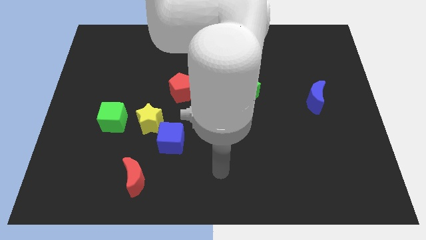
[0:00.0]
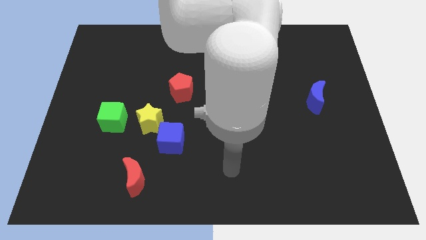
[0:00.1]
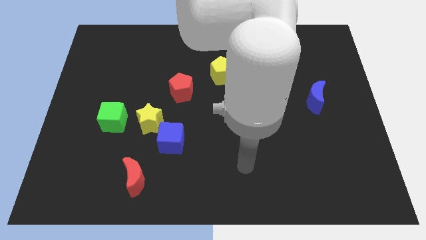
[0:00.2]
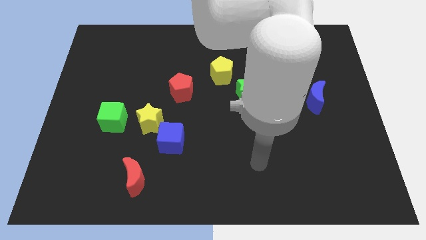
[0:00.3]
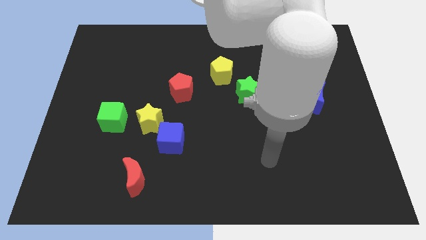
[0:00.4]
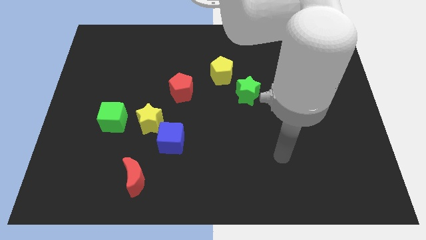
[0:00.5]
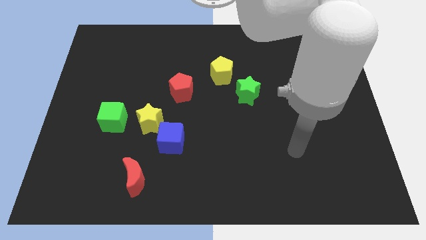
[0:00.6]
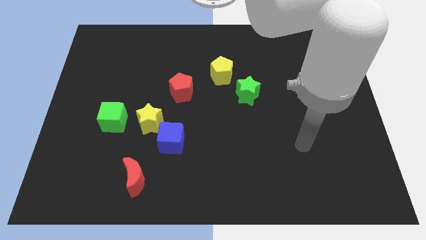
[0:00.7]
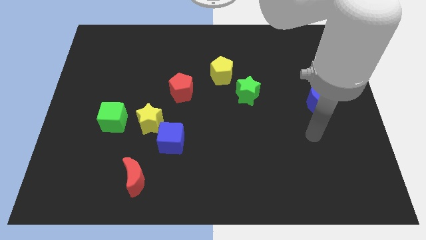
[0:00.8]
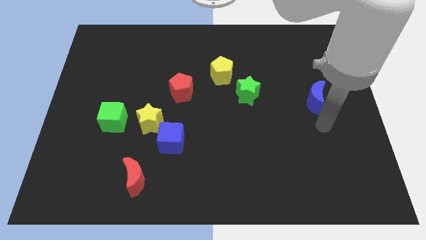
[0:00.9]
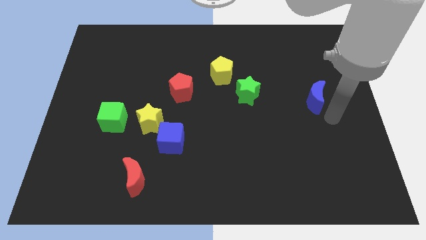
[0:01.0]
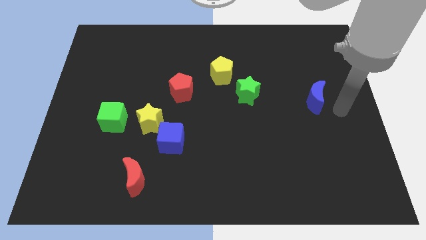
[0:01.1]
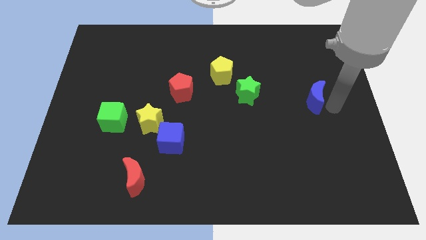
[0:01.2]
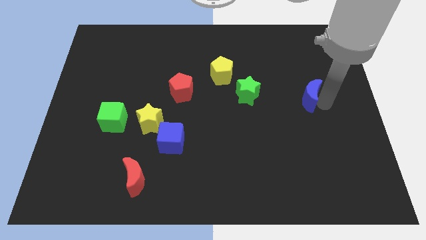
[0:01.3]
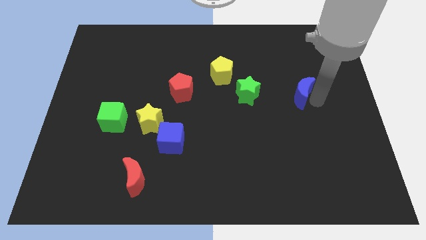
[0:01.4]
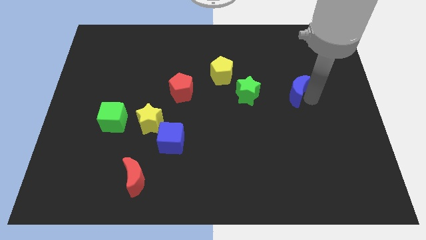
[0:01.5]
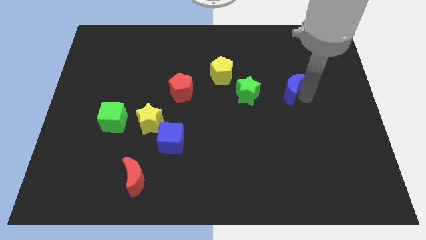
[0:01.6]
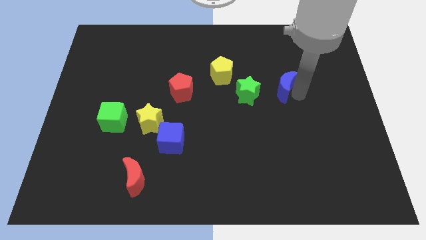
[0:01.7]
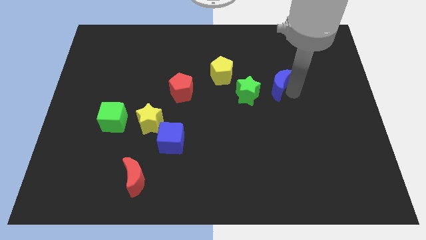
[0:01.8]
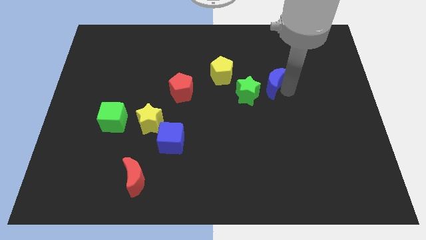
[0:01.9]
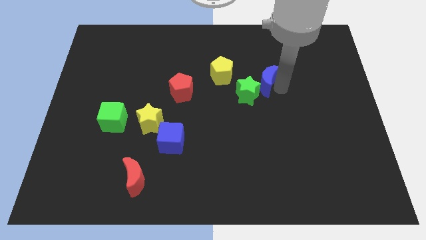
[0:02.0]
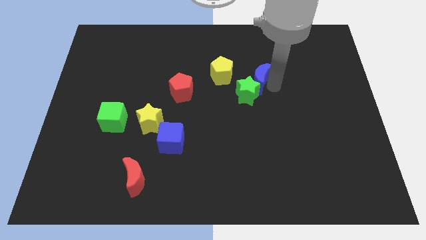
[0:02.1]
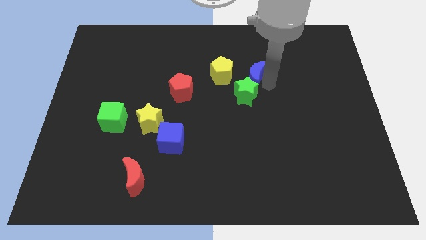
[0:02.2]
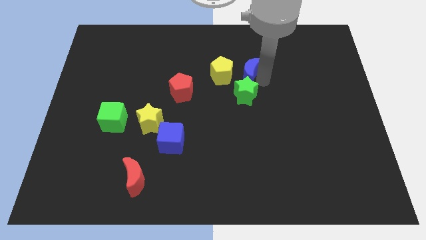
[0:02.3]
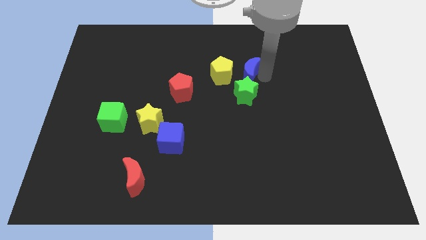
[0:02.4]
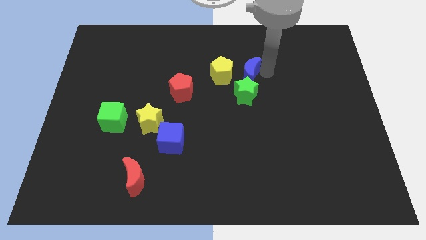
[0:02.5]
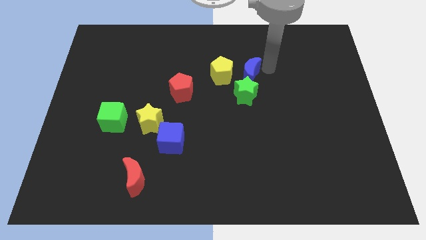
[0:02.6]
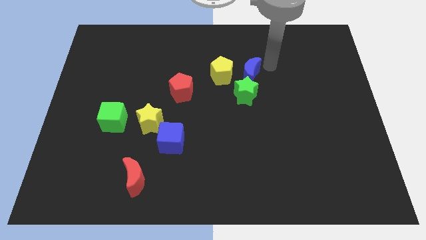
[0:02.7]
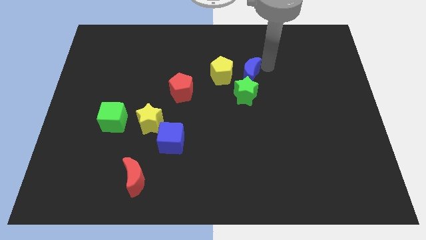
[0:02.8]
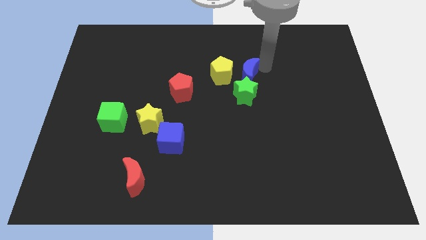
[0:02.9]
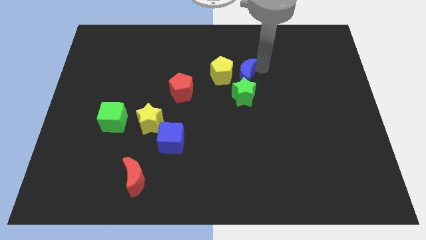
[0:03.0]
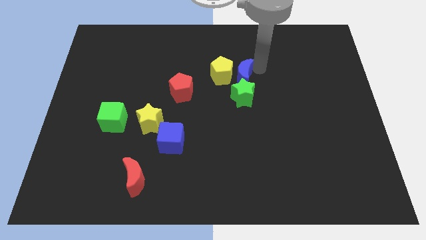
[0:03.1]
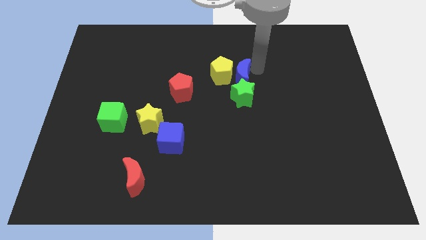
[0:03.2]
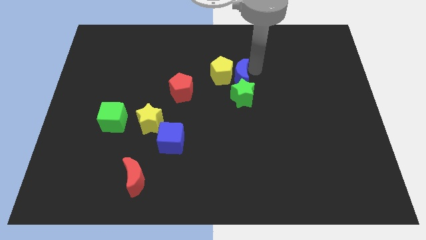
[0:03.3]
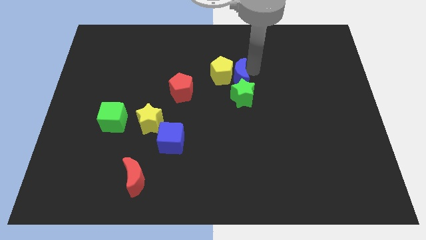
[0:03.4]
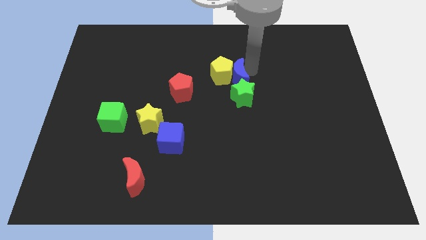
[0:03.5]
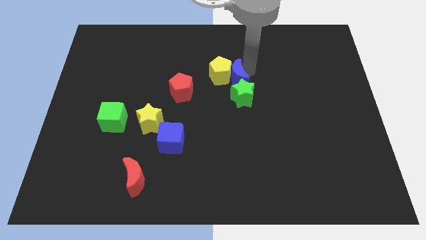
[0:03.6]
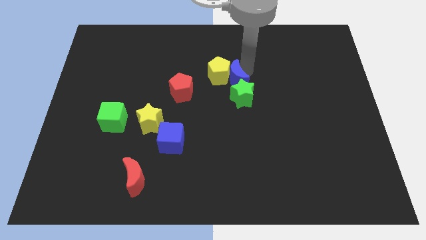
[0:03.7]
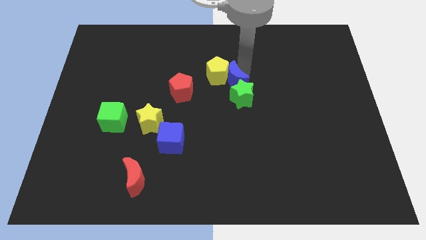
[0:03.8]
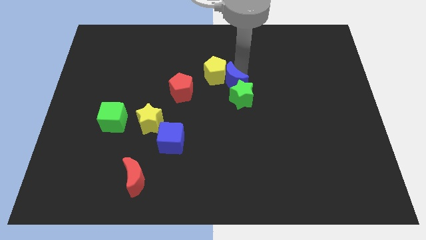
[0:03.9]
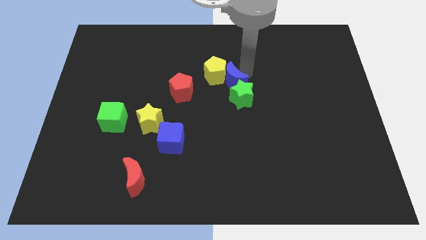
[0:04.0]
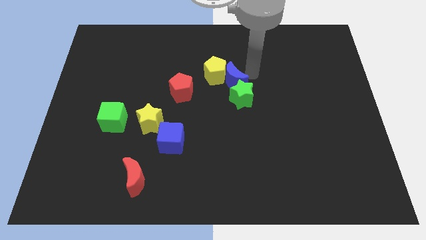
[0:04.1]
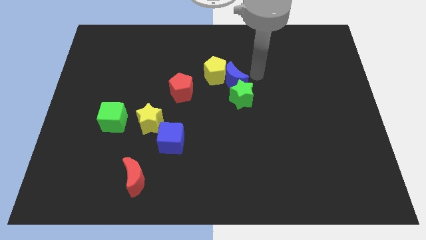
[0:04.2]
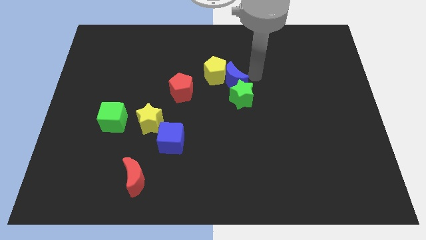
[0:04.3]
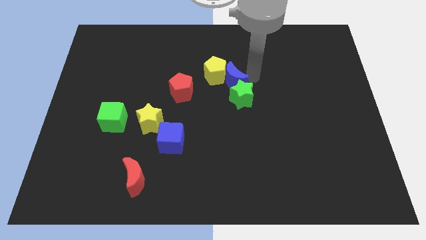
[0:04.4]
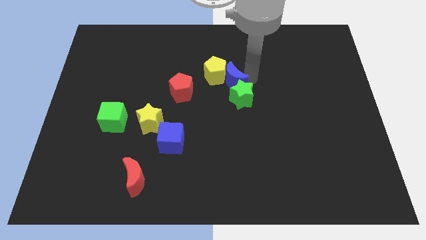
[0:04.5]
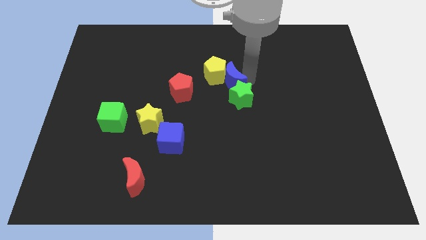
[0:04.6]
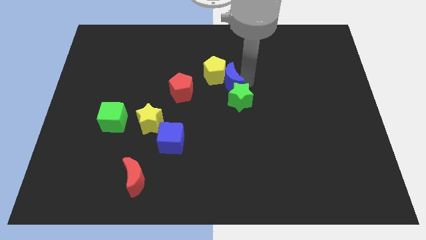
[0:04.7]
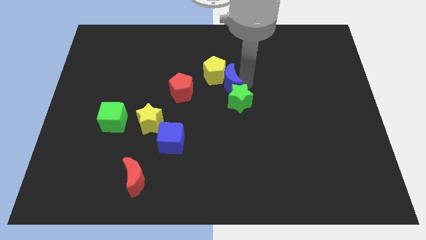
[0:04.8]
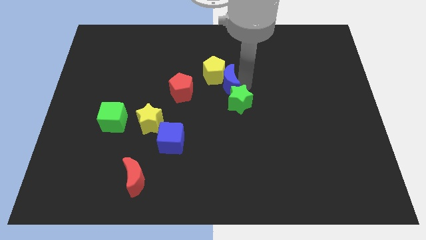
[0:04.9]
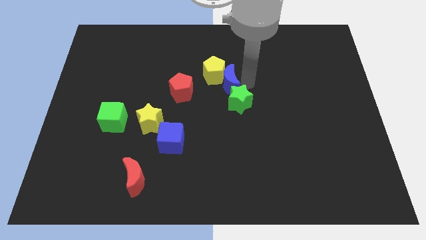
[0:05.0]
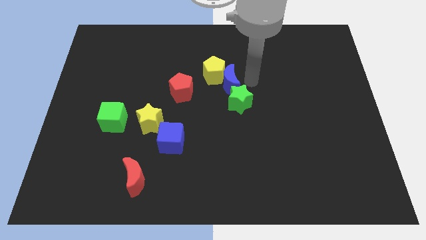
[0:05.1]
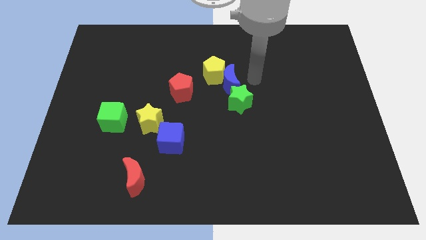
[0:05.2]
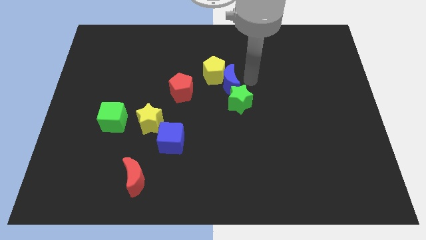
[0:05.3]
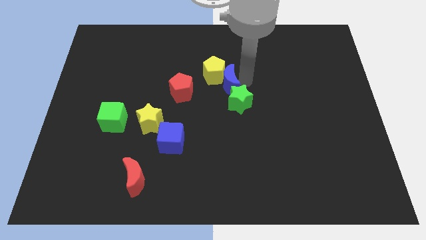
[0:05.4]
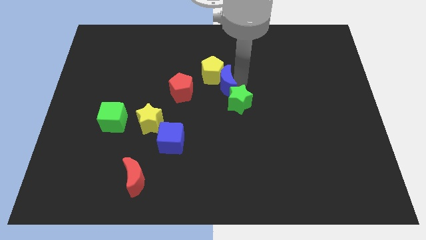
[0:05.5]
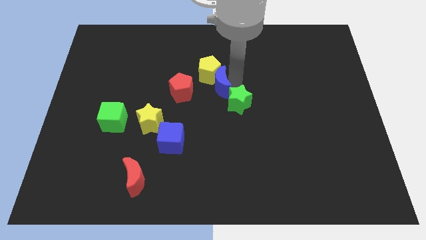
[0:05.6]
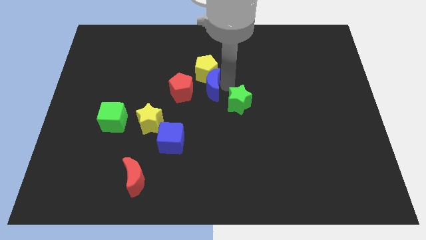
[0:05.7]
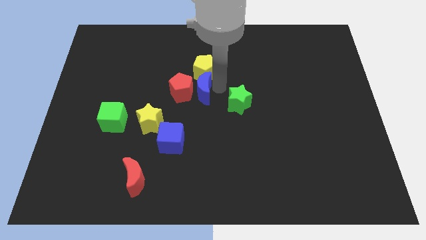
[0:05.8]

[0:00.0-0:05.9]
move the blue moon to the red pentagon

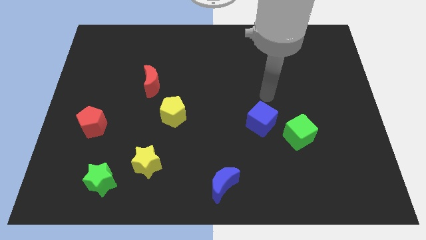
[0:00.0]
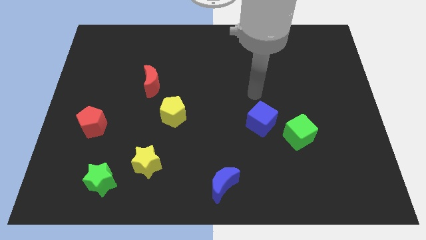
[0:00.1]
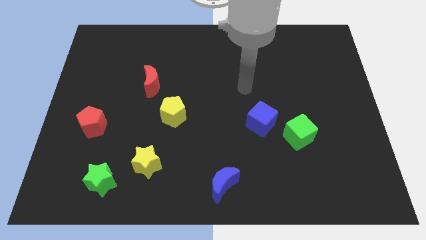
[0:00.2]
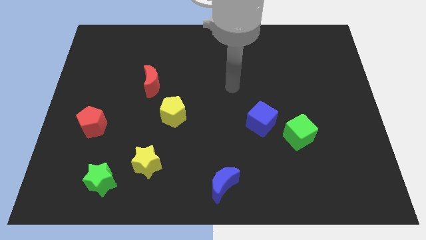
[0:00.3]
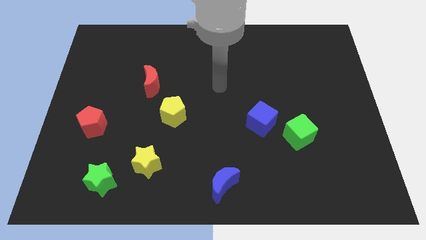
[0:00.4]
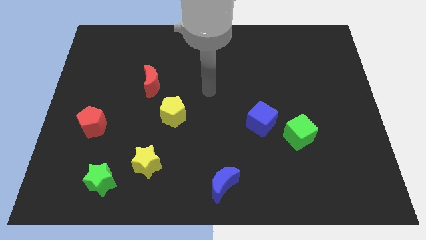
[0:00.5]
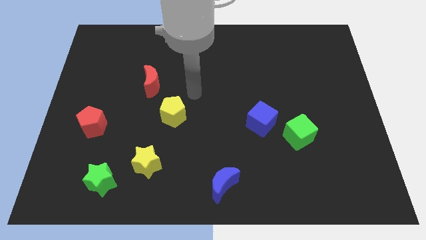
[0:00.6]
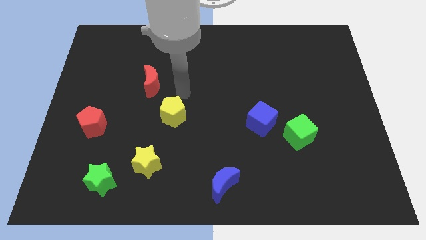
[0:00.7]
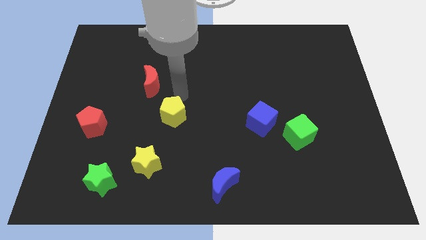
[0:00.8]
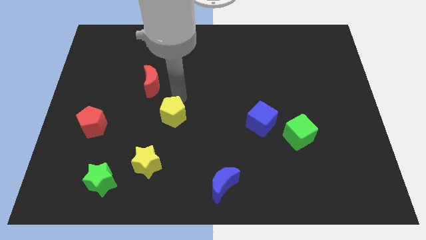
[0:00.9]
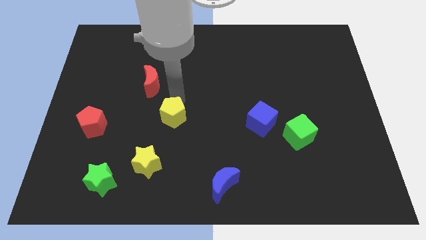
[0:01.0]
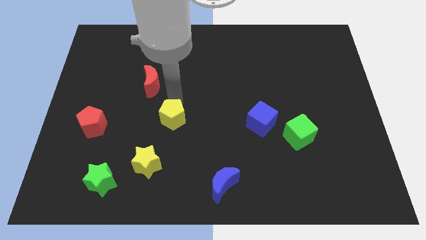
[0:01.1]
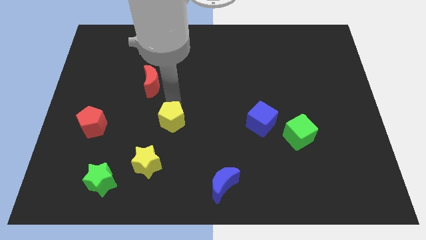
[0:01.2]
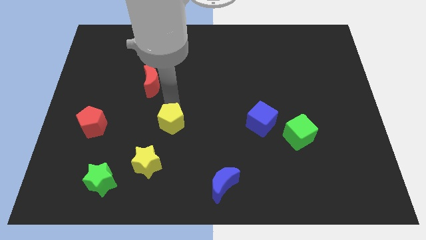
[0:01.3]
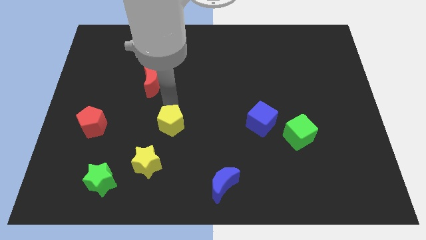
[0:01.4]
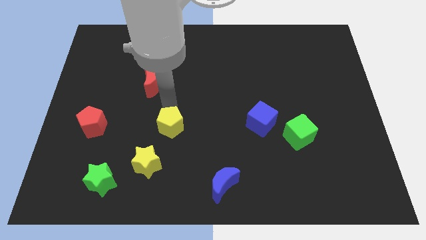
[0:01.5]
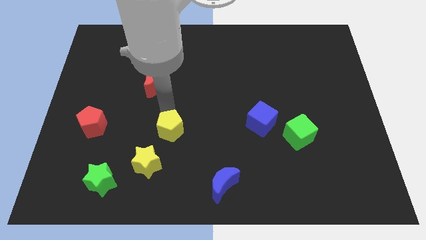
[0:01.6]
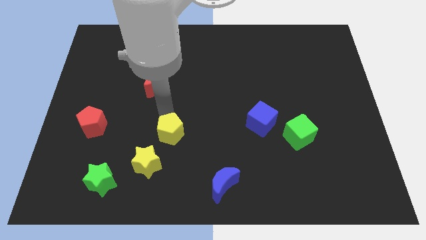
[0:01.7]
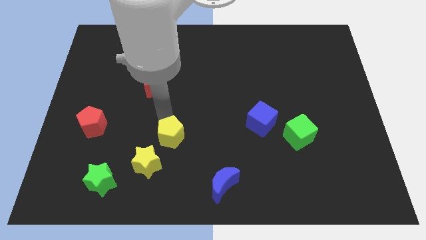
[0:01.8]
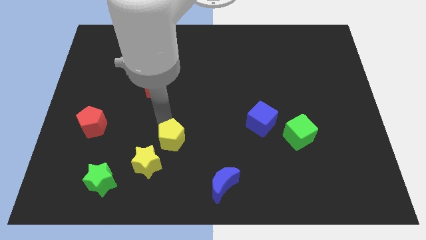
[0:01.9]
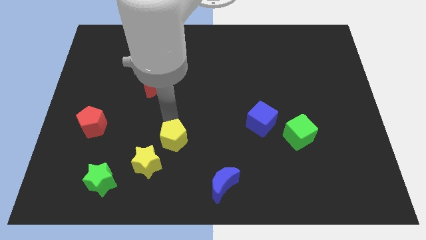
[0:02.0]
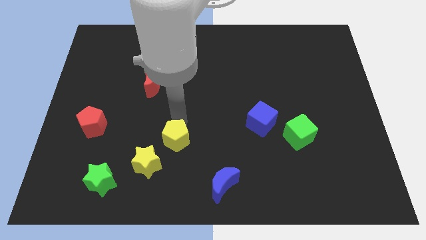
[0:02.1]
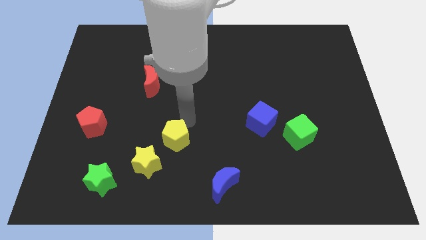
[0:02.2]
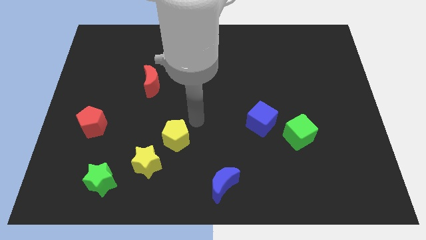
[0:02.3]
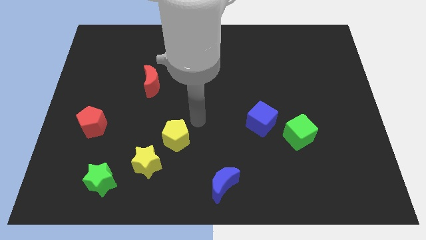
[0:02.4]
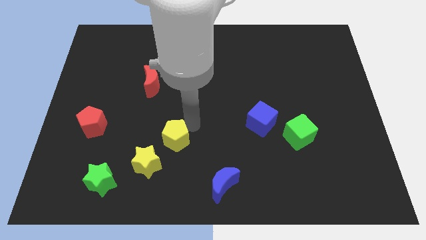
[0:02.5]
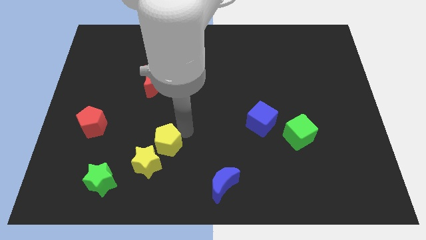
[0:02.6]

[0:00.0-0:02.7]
put the yellow pentagon close to the yellow star
